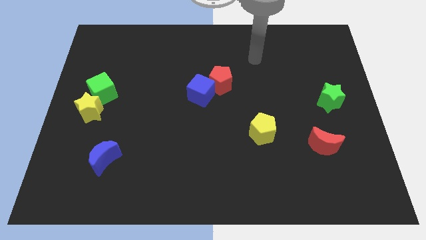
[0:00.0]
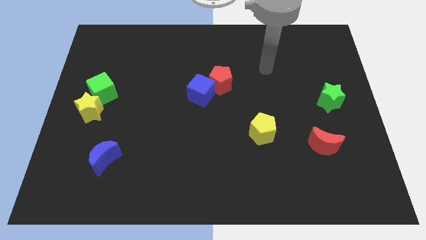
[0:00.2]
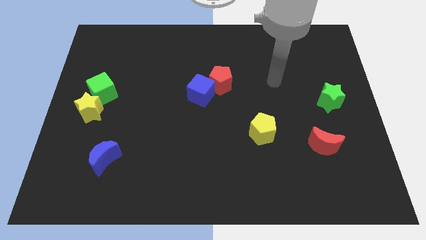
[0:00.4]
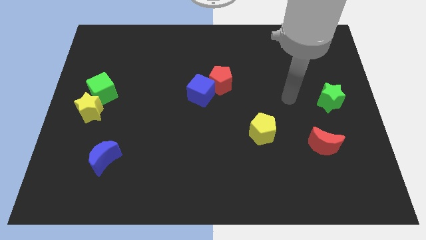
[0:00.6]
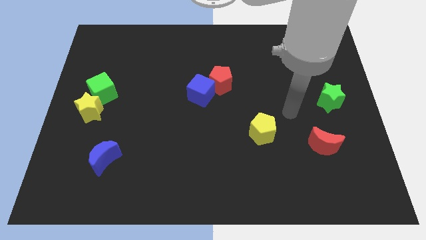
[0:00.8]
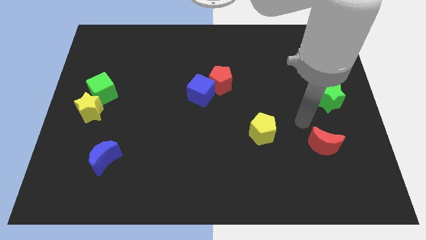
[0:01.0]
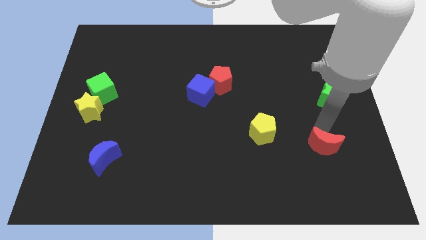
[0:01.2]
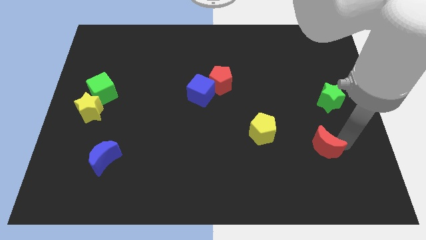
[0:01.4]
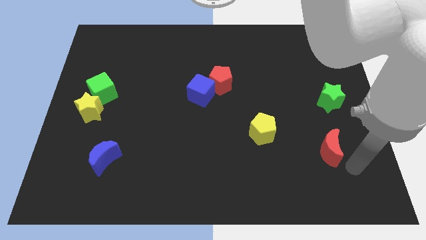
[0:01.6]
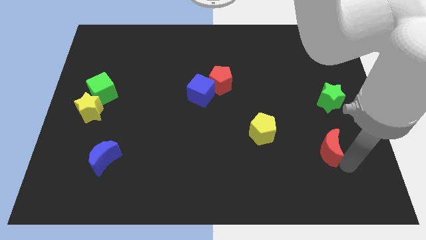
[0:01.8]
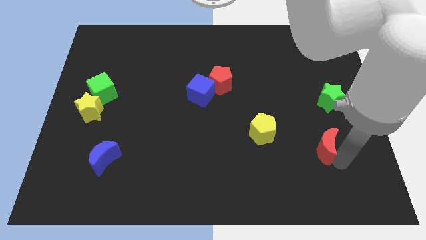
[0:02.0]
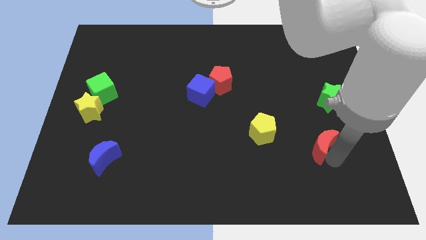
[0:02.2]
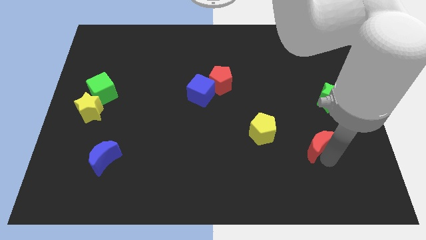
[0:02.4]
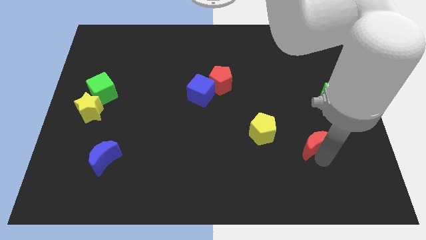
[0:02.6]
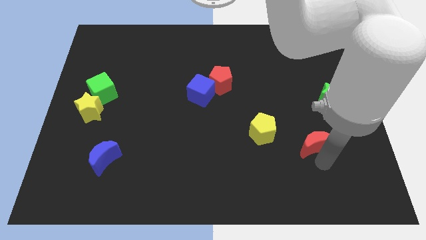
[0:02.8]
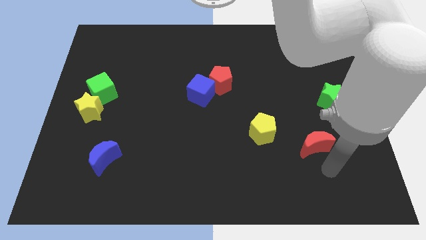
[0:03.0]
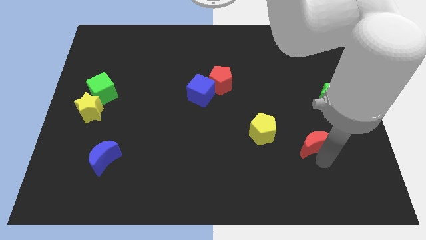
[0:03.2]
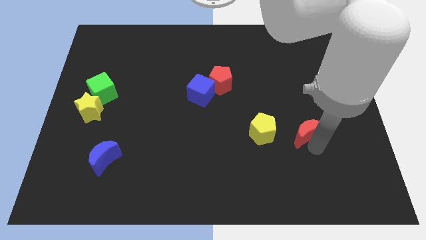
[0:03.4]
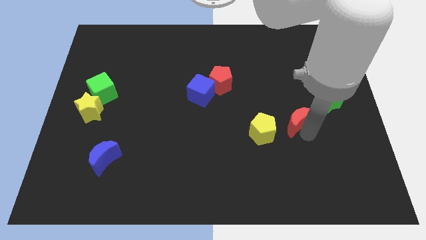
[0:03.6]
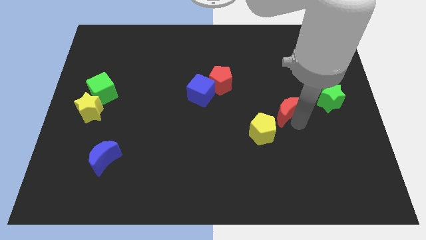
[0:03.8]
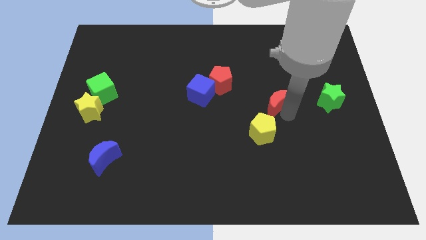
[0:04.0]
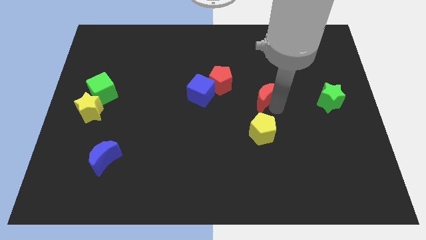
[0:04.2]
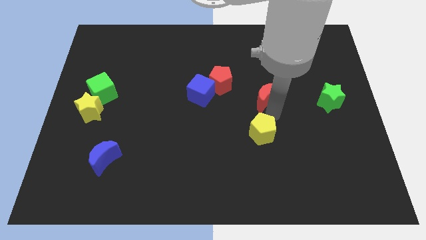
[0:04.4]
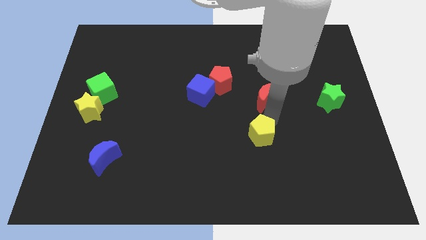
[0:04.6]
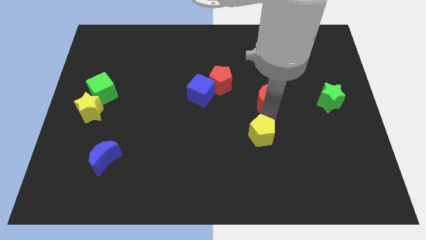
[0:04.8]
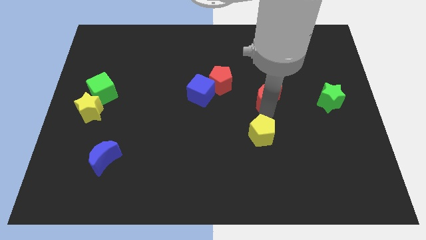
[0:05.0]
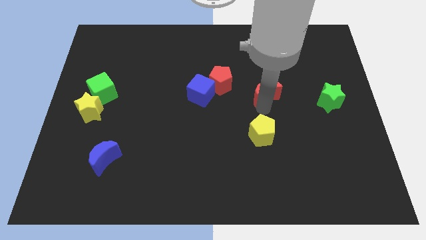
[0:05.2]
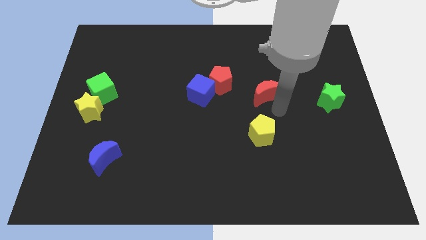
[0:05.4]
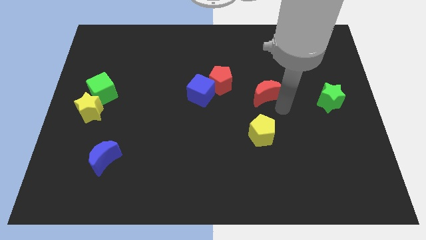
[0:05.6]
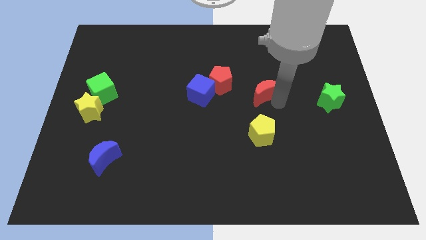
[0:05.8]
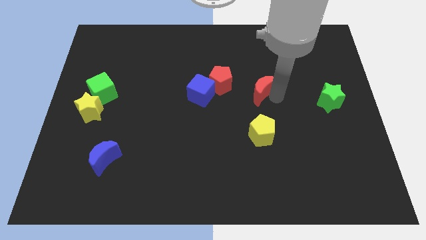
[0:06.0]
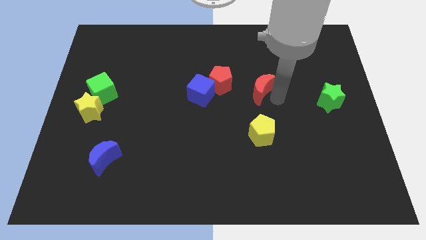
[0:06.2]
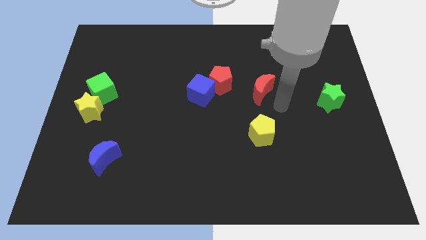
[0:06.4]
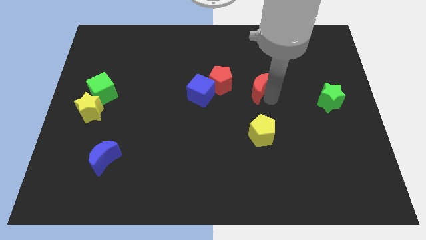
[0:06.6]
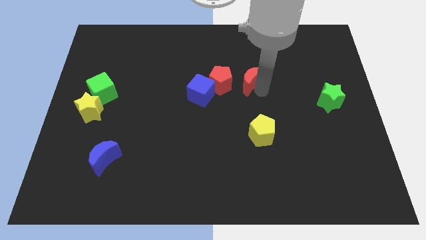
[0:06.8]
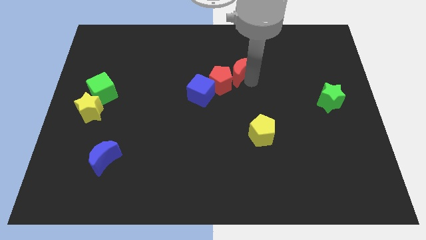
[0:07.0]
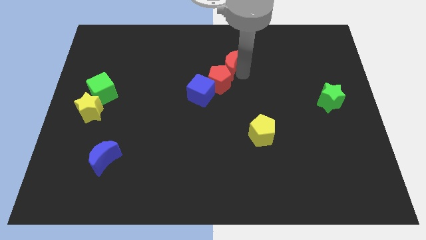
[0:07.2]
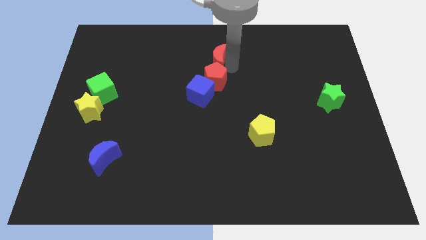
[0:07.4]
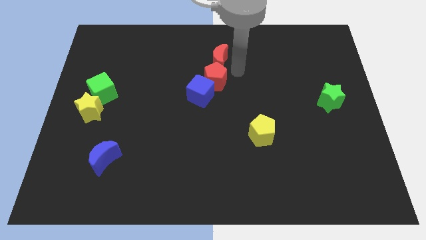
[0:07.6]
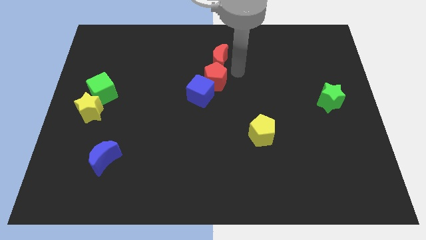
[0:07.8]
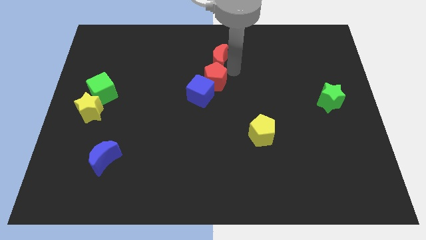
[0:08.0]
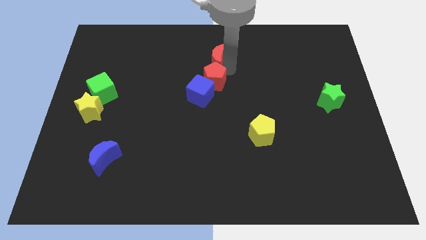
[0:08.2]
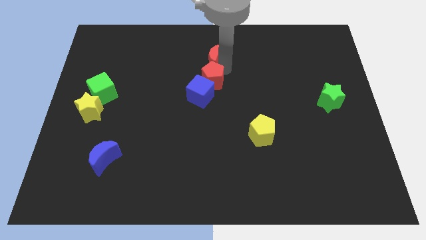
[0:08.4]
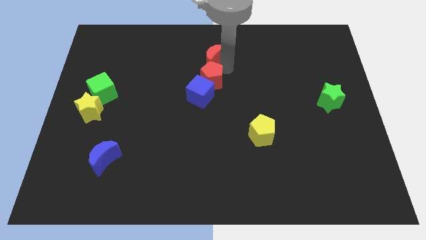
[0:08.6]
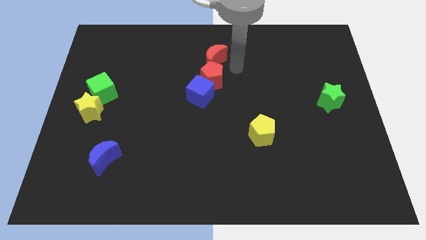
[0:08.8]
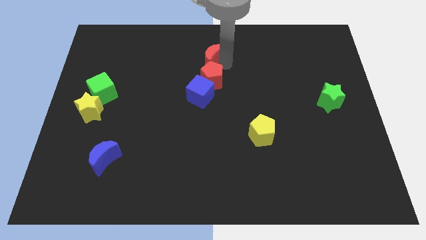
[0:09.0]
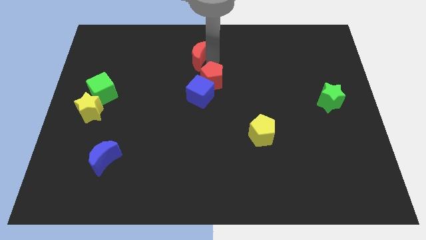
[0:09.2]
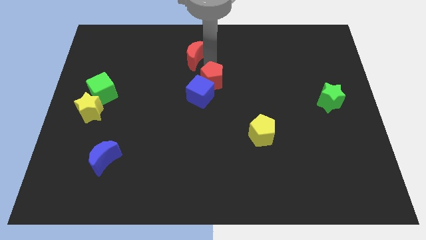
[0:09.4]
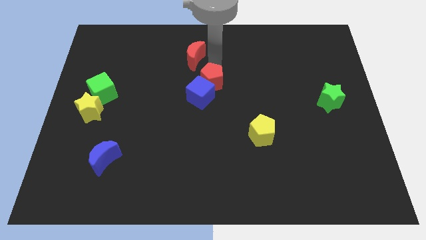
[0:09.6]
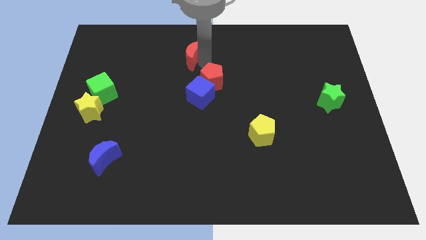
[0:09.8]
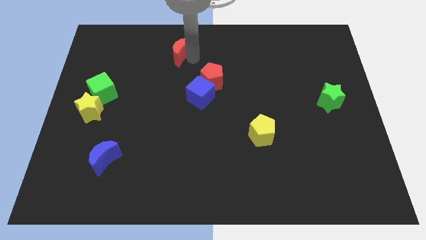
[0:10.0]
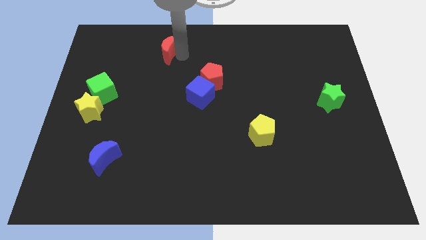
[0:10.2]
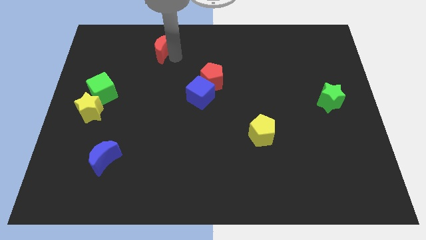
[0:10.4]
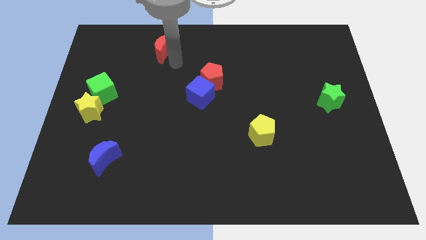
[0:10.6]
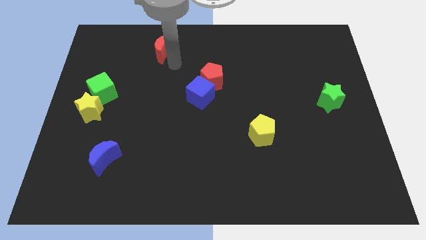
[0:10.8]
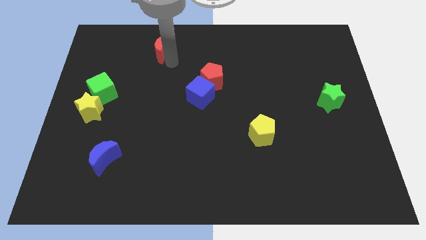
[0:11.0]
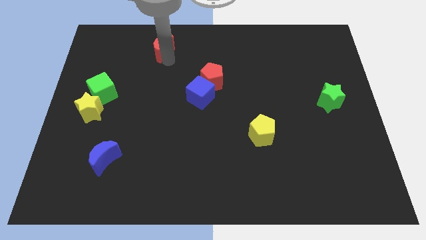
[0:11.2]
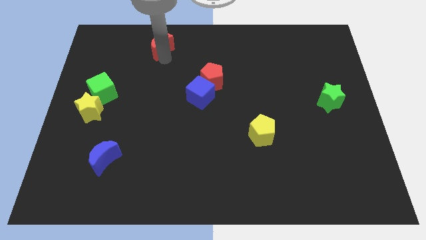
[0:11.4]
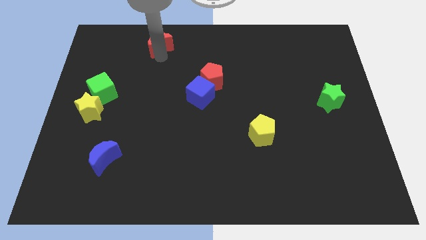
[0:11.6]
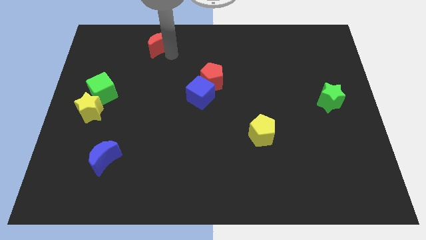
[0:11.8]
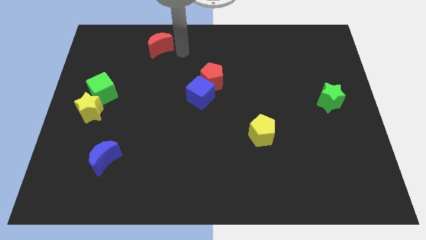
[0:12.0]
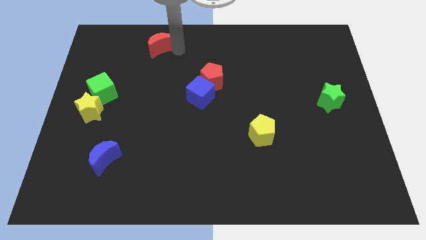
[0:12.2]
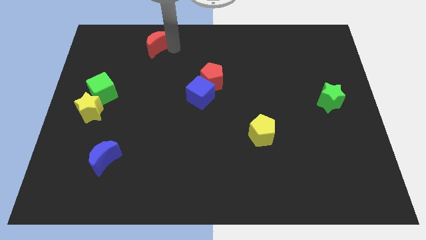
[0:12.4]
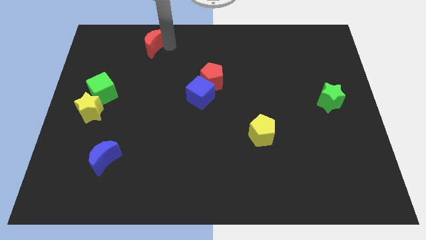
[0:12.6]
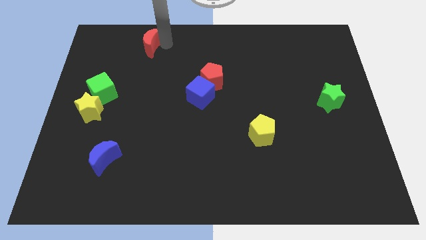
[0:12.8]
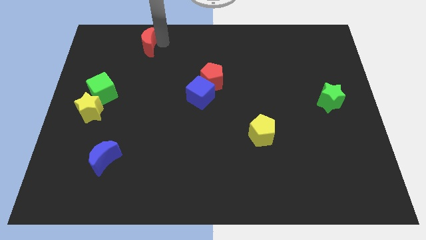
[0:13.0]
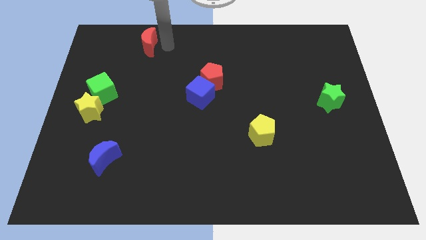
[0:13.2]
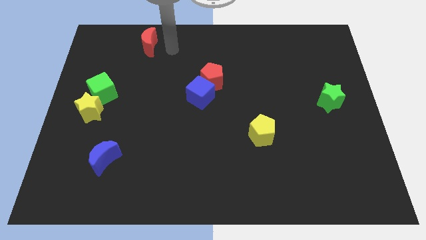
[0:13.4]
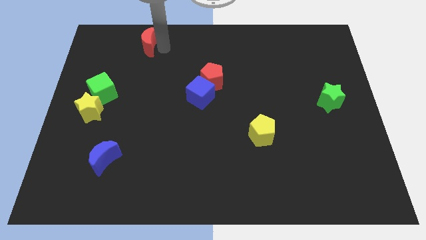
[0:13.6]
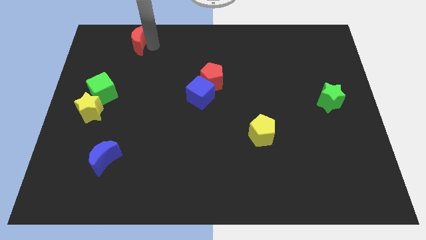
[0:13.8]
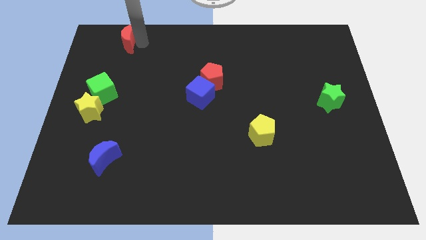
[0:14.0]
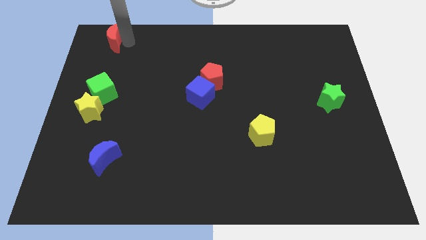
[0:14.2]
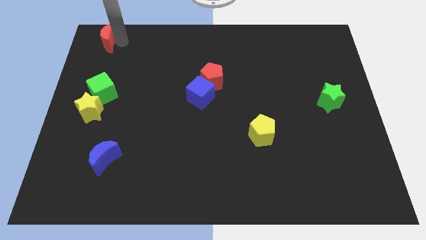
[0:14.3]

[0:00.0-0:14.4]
put the red moon to the top left
